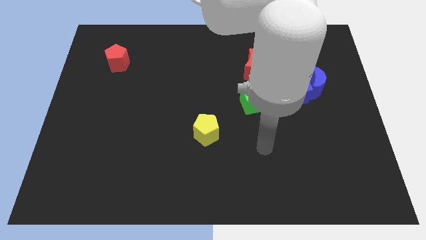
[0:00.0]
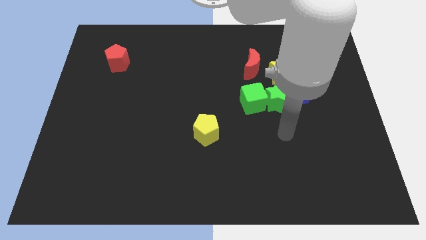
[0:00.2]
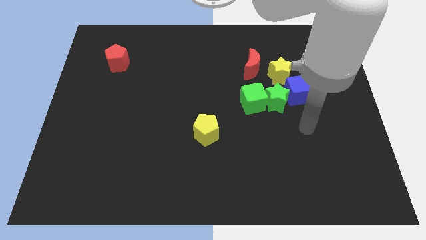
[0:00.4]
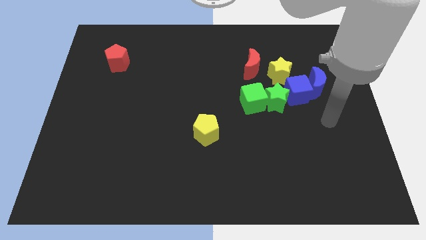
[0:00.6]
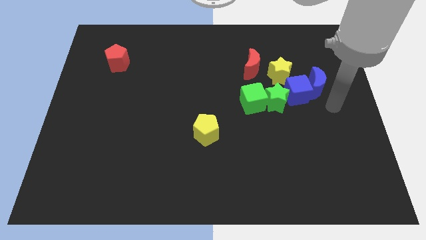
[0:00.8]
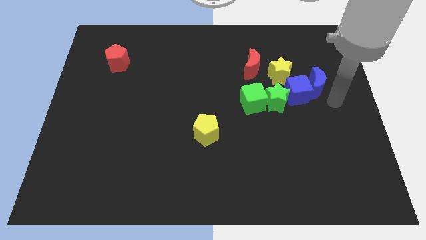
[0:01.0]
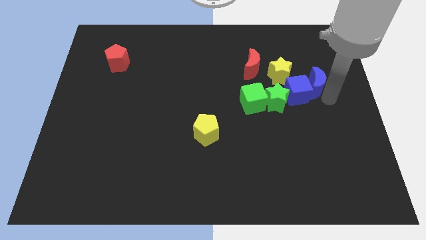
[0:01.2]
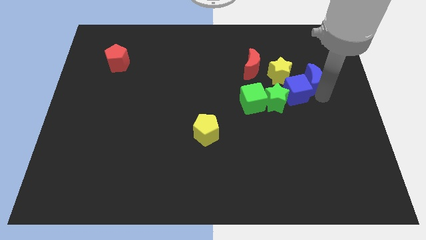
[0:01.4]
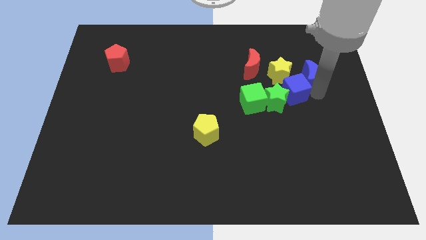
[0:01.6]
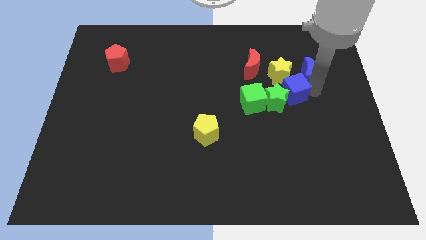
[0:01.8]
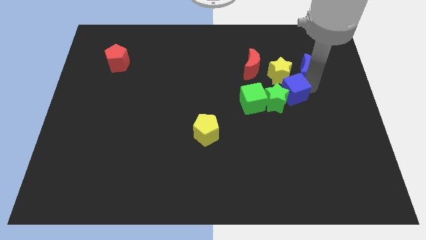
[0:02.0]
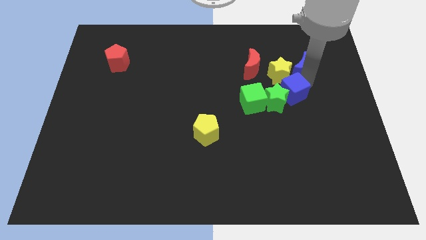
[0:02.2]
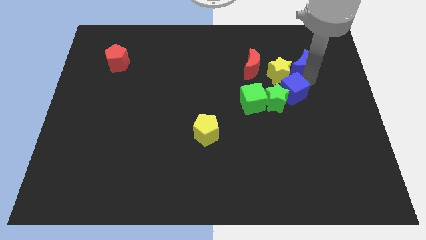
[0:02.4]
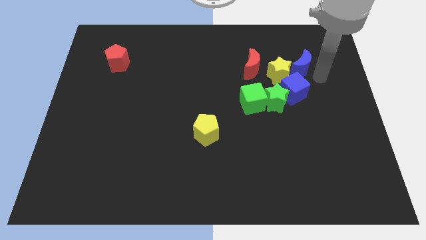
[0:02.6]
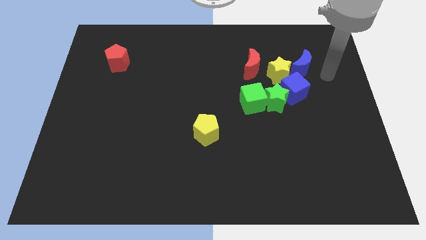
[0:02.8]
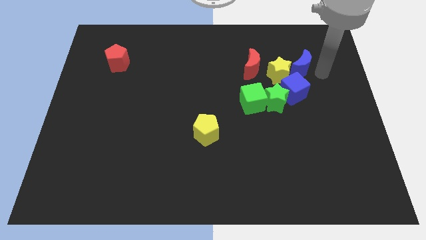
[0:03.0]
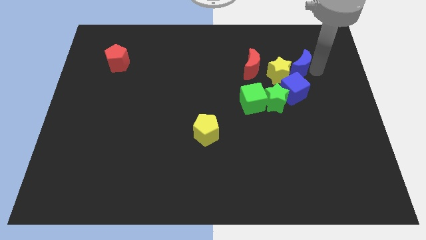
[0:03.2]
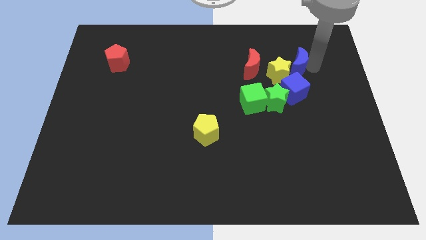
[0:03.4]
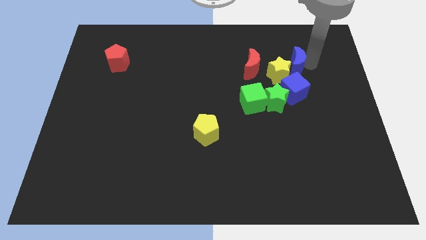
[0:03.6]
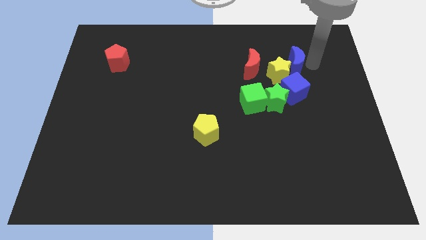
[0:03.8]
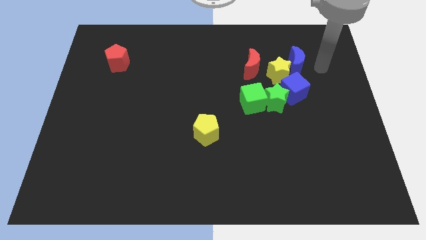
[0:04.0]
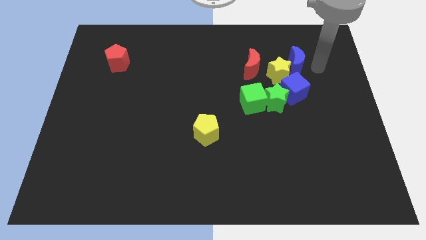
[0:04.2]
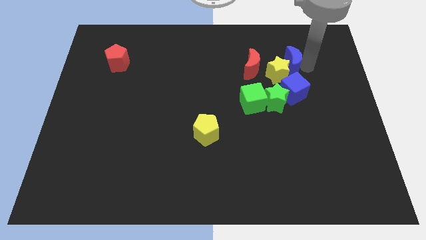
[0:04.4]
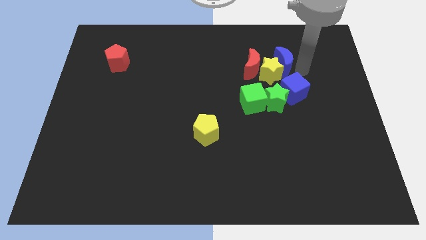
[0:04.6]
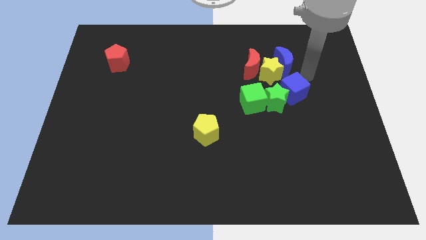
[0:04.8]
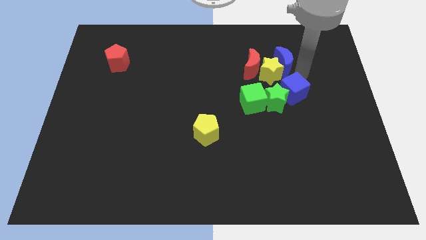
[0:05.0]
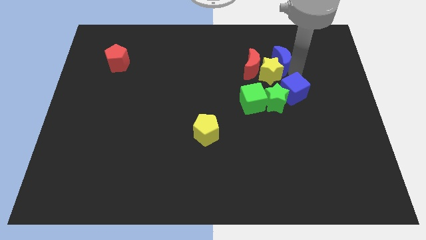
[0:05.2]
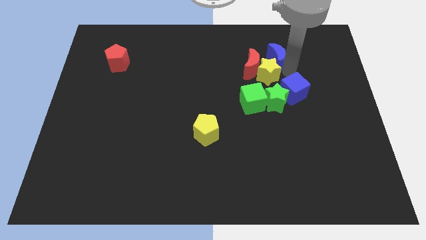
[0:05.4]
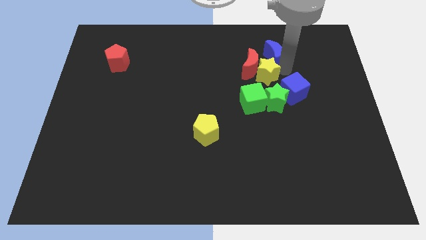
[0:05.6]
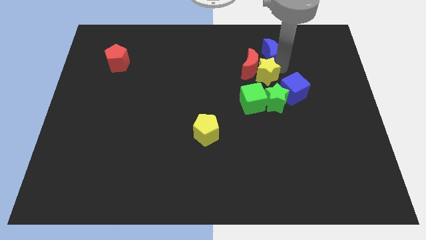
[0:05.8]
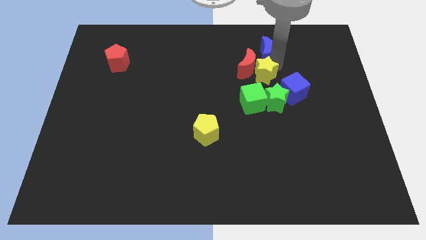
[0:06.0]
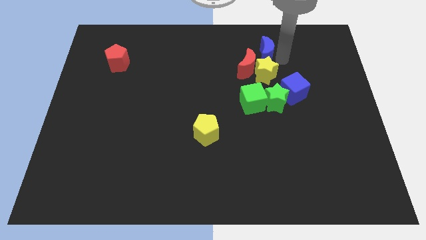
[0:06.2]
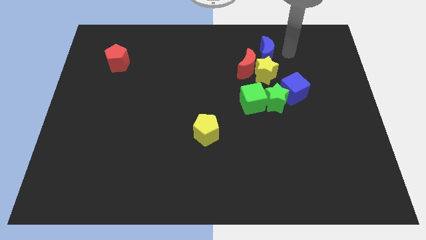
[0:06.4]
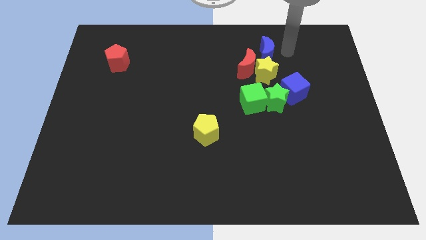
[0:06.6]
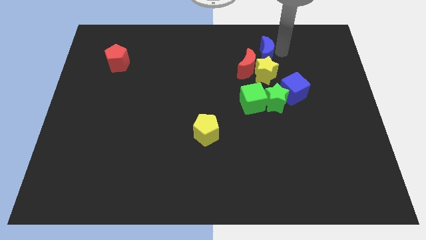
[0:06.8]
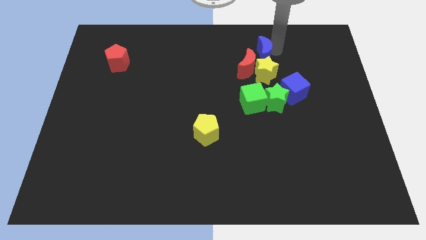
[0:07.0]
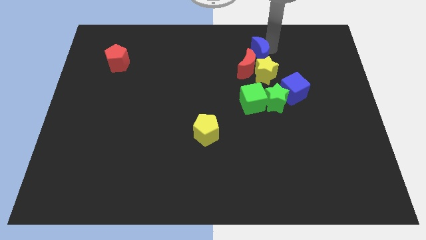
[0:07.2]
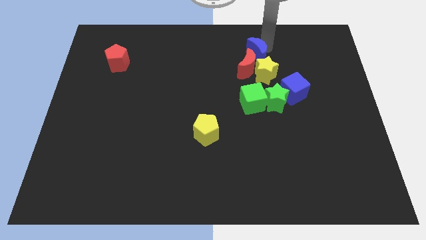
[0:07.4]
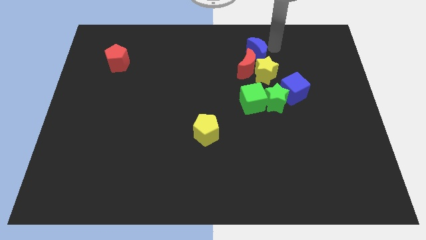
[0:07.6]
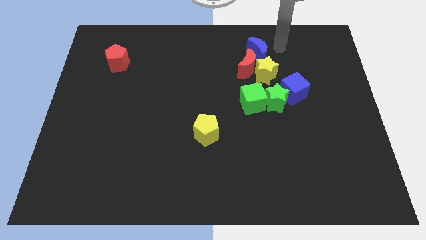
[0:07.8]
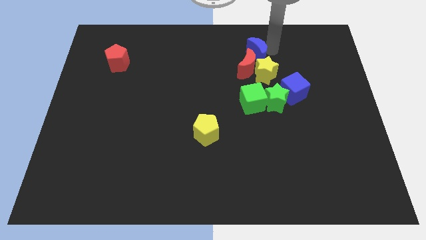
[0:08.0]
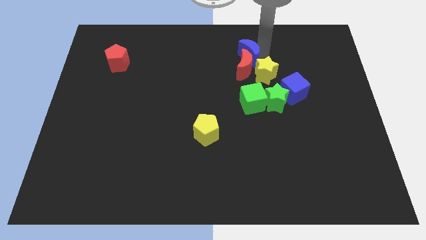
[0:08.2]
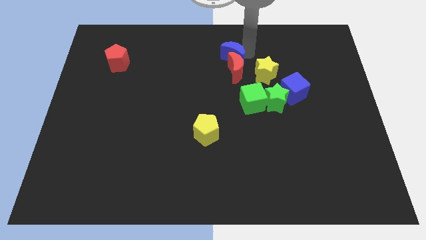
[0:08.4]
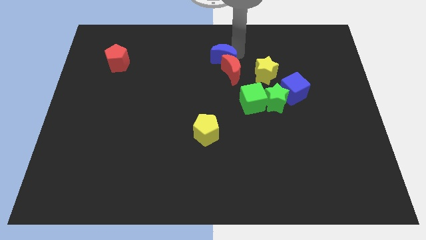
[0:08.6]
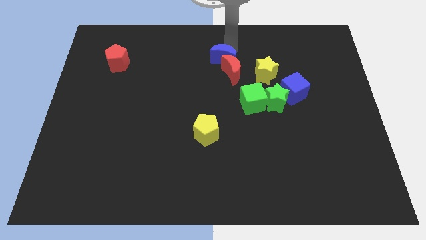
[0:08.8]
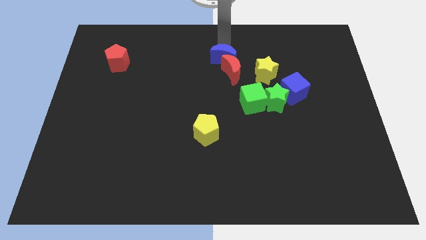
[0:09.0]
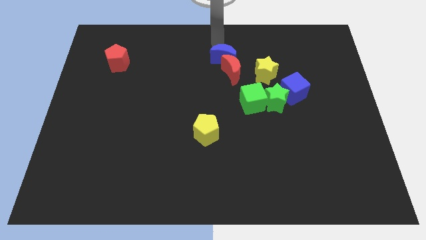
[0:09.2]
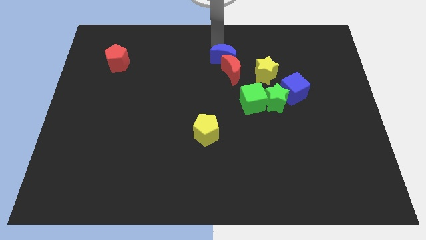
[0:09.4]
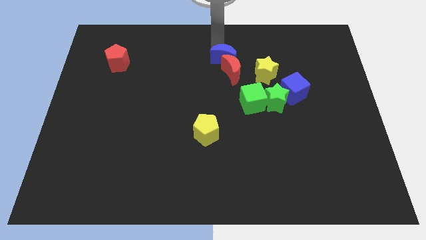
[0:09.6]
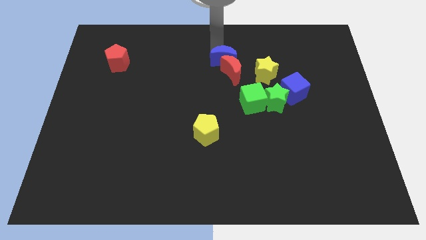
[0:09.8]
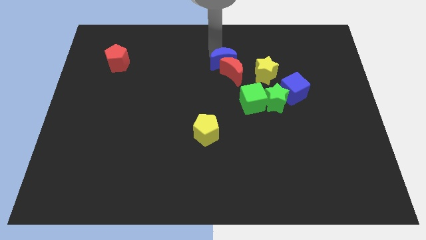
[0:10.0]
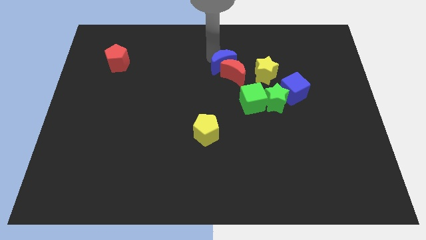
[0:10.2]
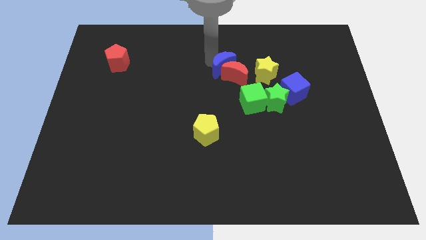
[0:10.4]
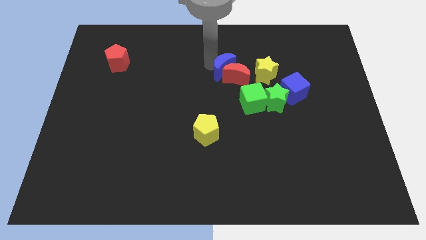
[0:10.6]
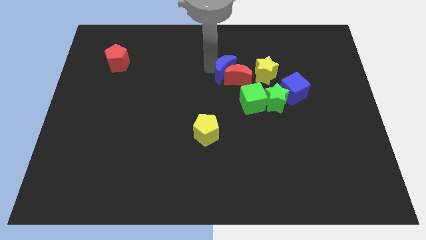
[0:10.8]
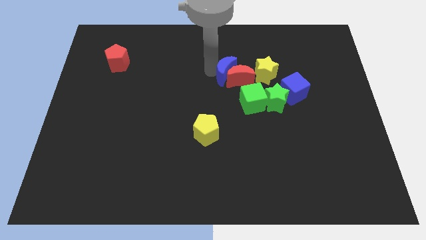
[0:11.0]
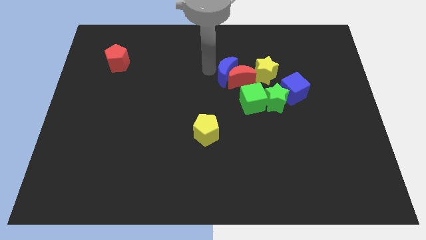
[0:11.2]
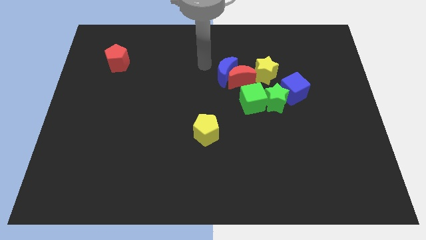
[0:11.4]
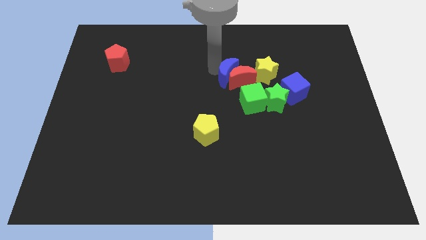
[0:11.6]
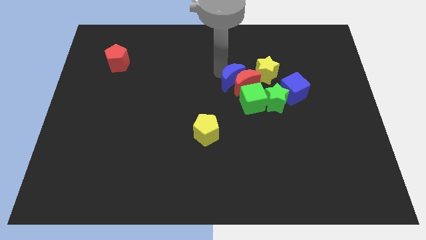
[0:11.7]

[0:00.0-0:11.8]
push the blue moon diagonally up and to the left of the green star

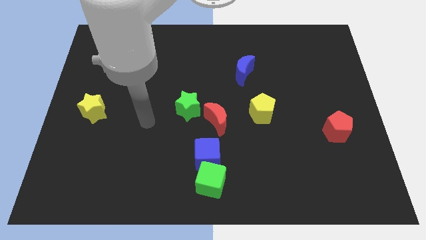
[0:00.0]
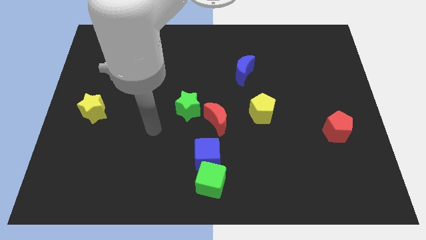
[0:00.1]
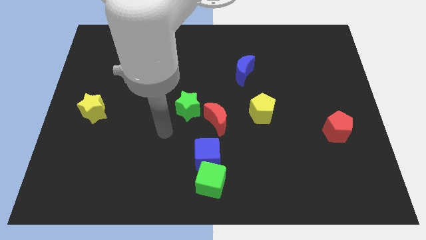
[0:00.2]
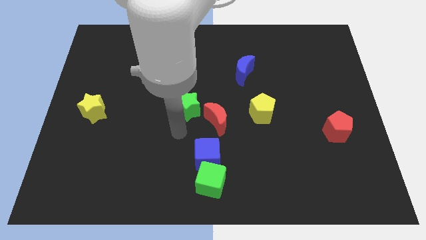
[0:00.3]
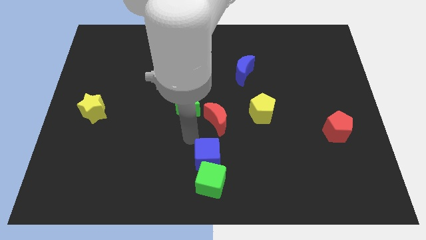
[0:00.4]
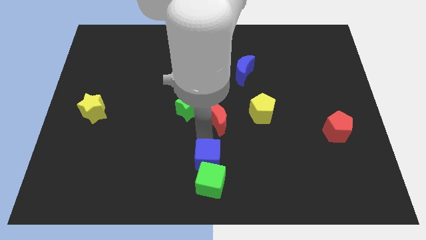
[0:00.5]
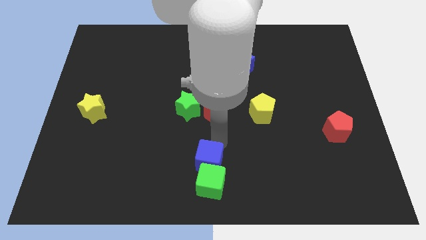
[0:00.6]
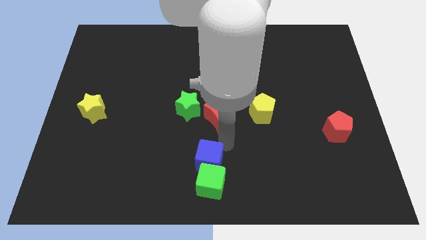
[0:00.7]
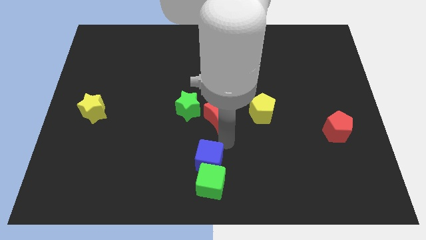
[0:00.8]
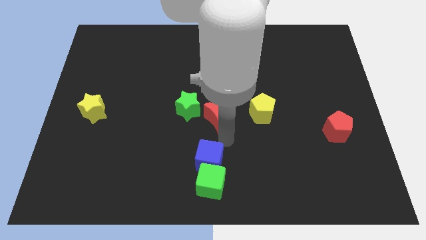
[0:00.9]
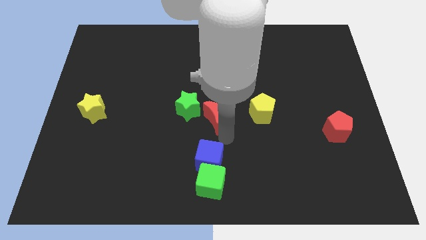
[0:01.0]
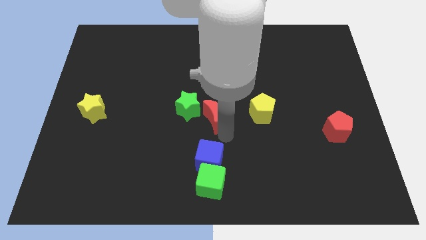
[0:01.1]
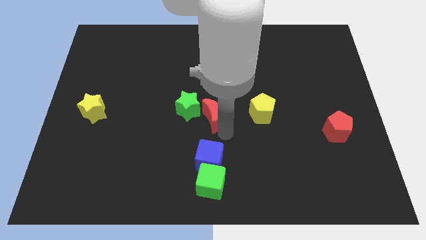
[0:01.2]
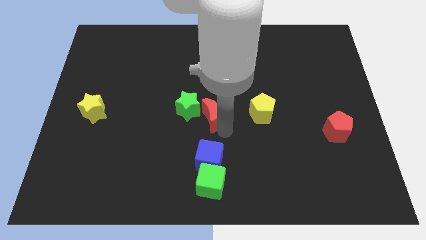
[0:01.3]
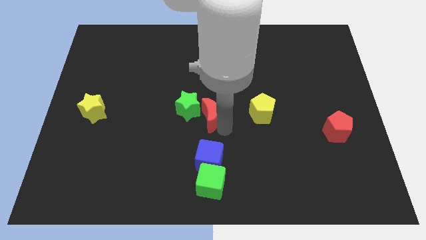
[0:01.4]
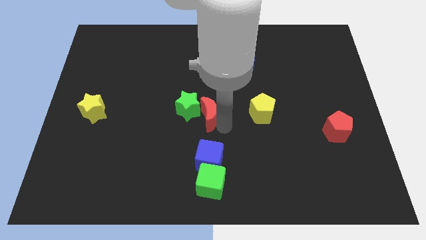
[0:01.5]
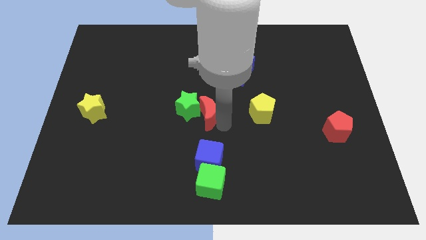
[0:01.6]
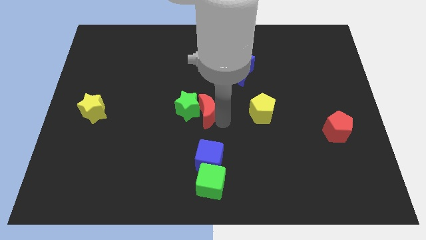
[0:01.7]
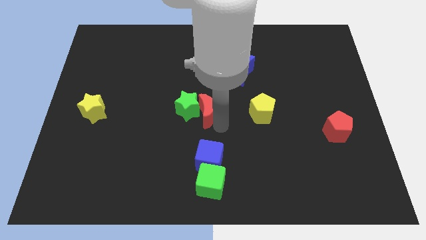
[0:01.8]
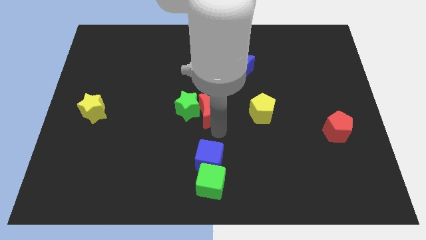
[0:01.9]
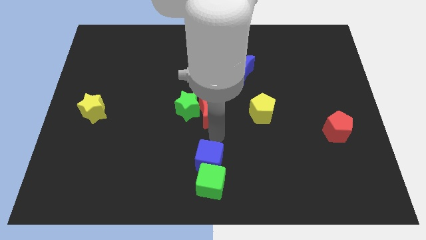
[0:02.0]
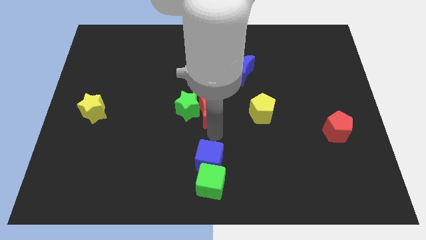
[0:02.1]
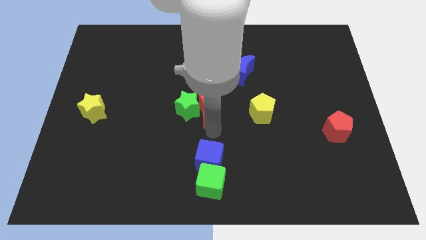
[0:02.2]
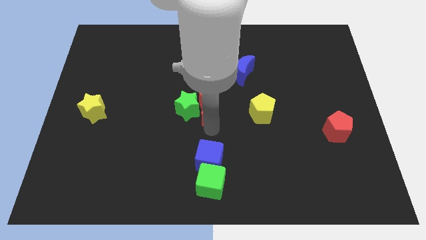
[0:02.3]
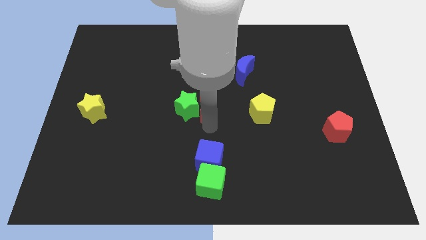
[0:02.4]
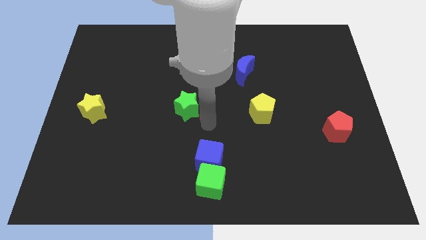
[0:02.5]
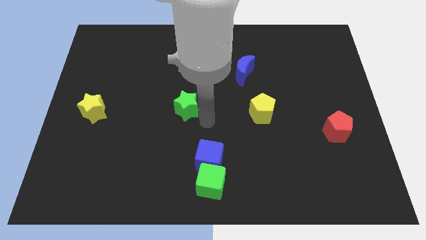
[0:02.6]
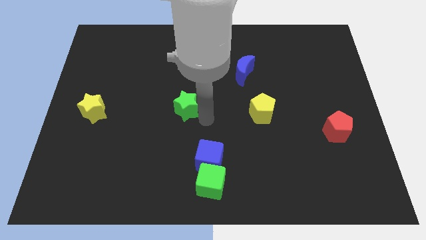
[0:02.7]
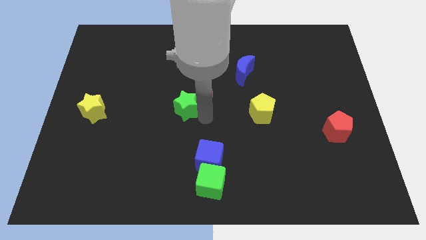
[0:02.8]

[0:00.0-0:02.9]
move the red moon to the top side of the green star
